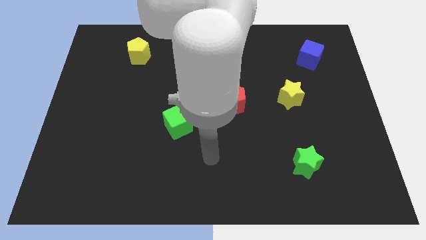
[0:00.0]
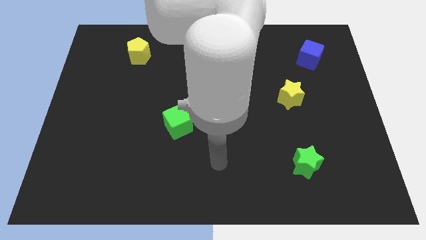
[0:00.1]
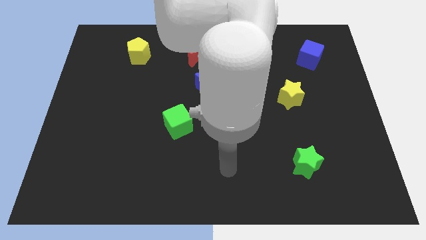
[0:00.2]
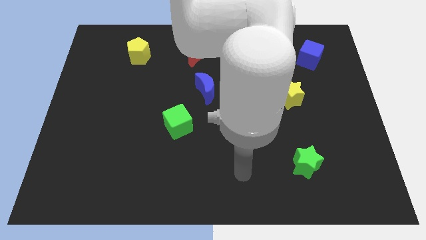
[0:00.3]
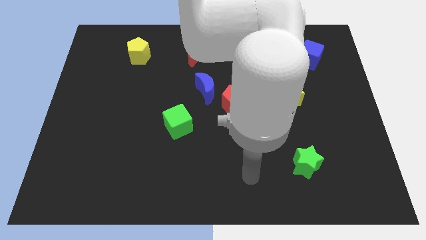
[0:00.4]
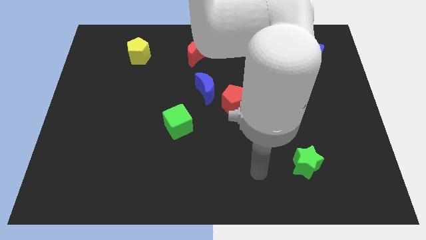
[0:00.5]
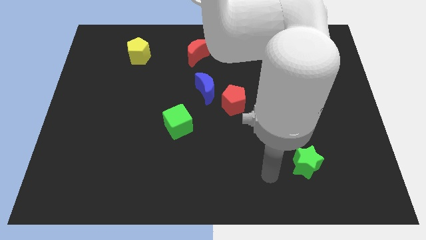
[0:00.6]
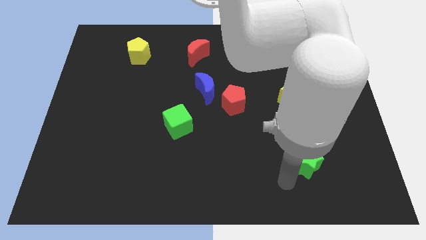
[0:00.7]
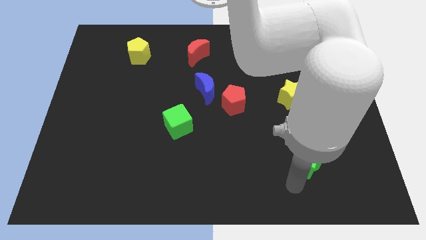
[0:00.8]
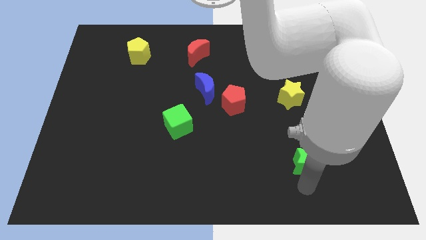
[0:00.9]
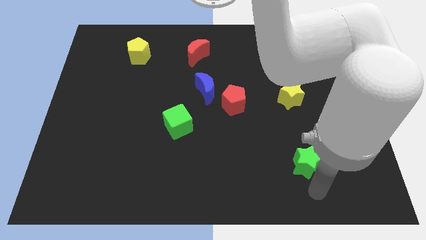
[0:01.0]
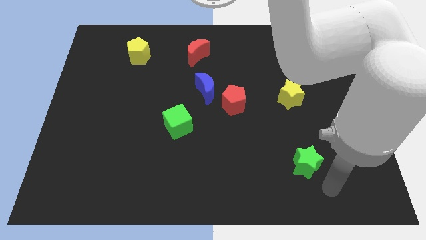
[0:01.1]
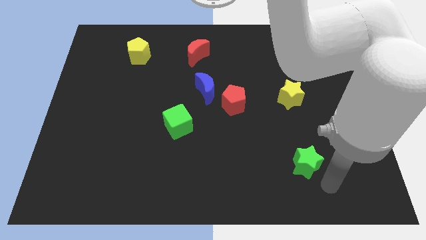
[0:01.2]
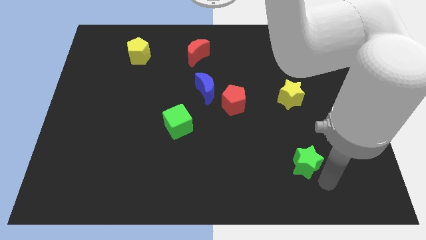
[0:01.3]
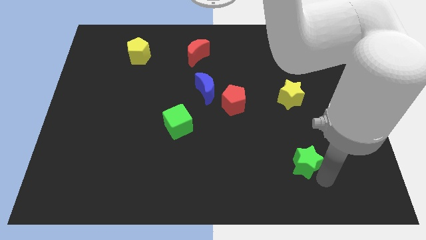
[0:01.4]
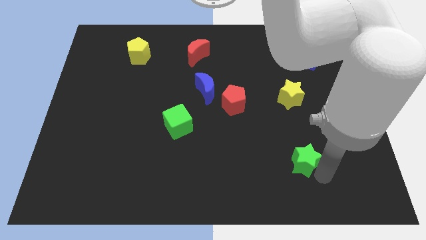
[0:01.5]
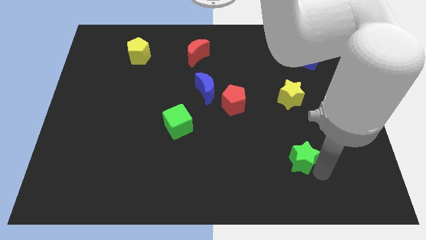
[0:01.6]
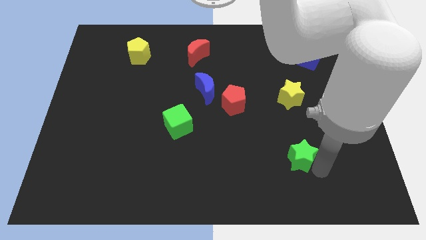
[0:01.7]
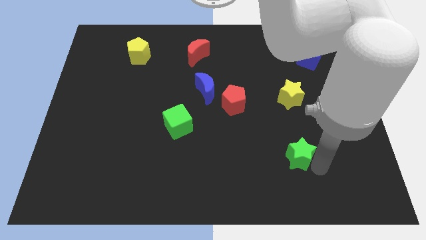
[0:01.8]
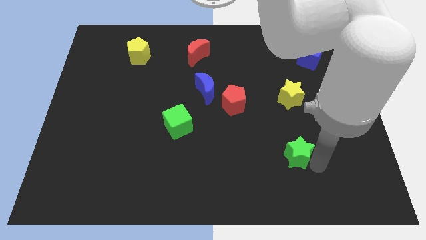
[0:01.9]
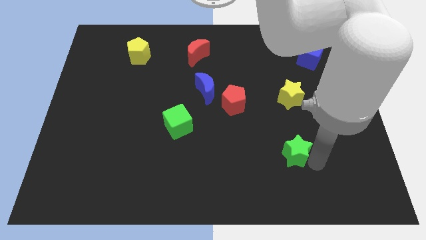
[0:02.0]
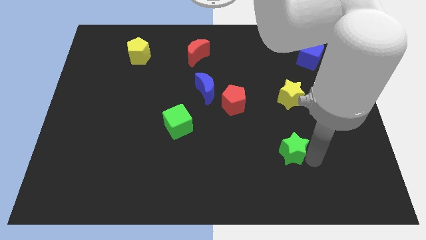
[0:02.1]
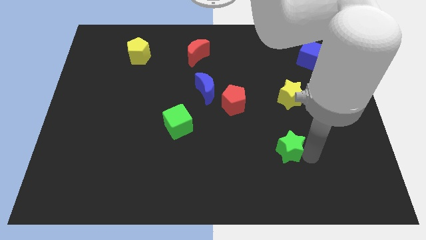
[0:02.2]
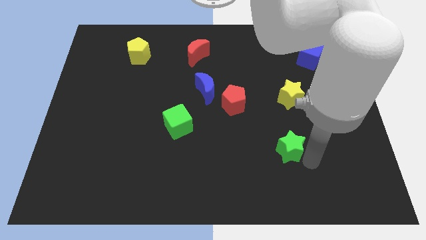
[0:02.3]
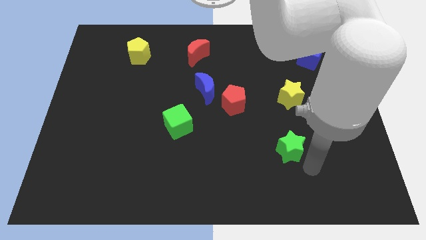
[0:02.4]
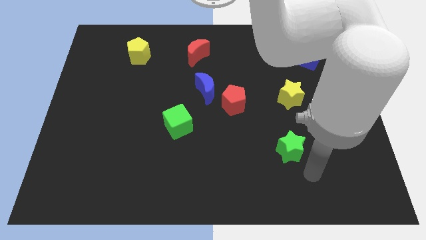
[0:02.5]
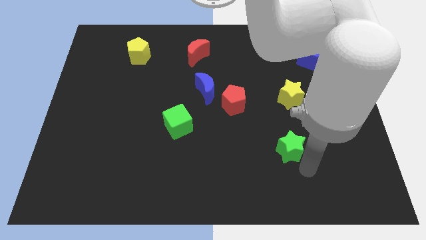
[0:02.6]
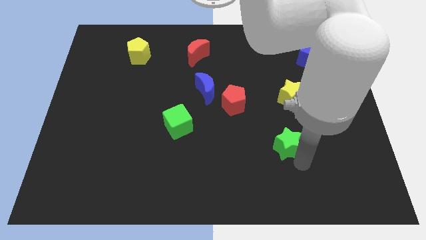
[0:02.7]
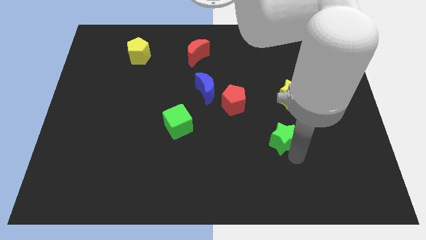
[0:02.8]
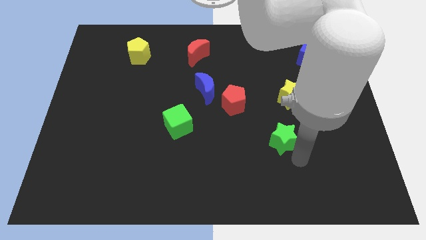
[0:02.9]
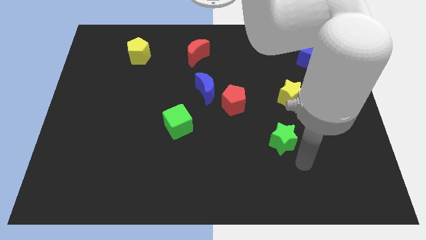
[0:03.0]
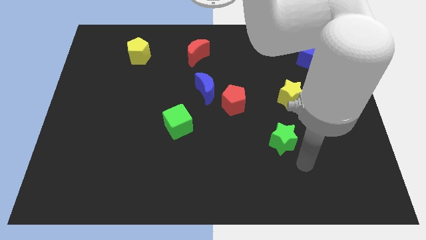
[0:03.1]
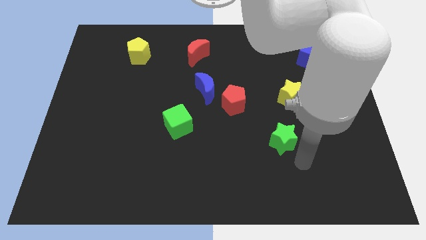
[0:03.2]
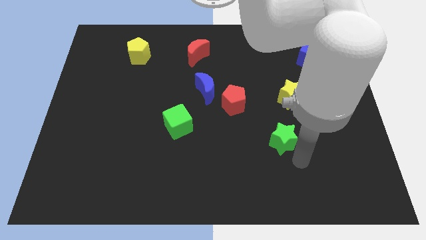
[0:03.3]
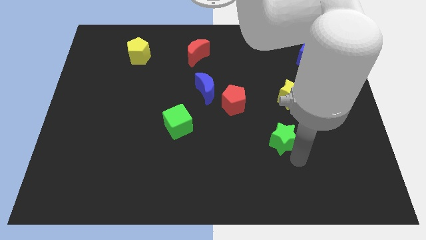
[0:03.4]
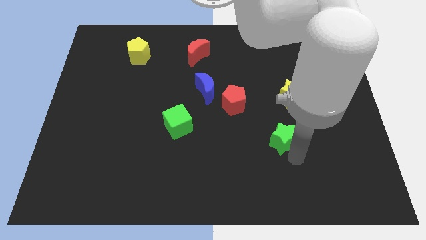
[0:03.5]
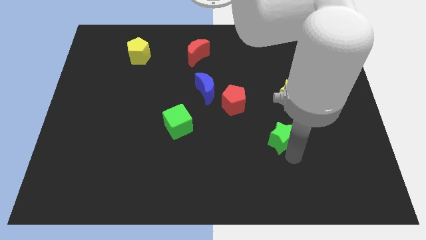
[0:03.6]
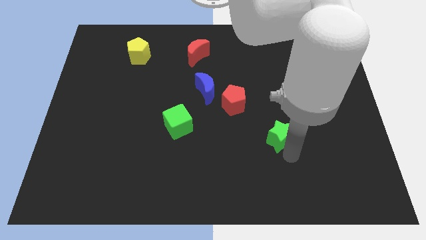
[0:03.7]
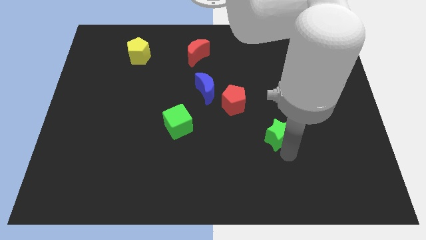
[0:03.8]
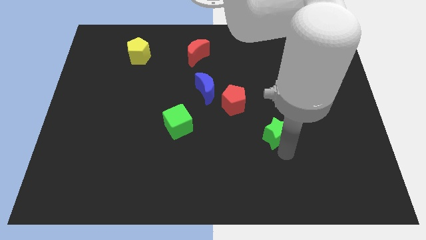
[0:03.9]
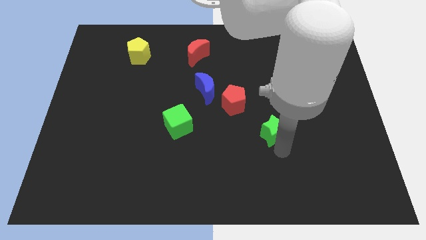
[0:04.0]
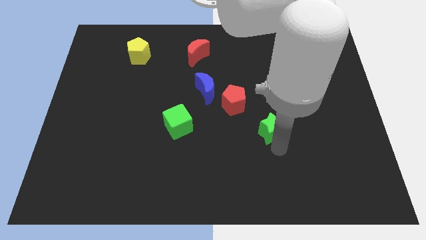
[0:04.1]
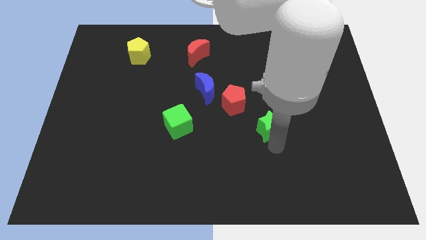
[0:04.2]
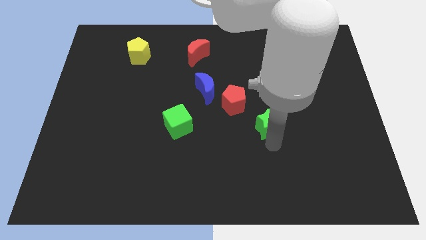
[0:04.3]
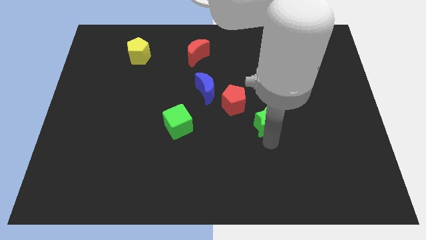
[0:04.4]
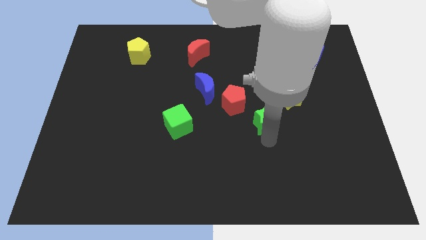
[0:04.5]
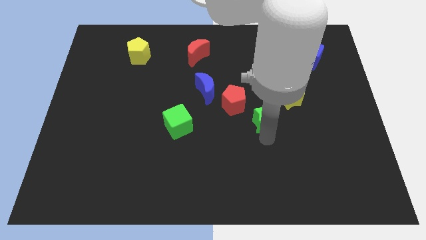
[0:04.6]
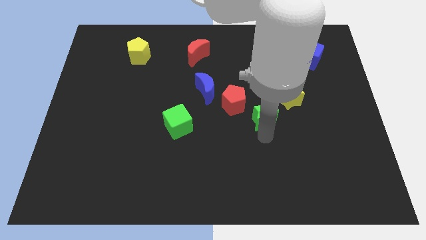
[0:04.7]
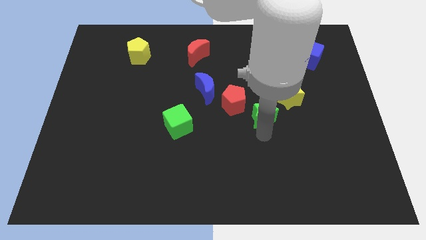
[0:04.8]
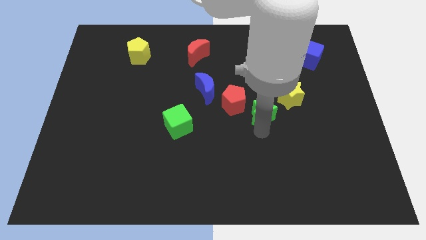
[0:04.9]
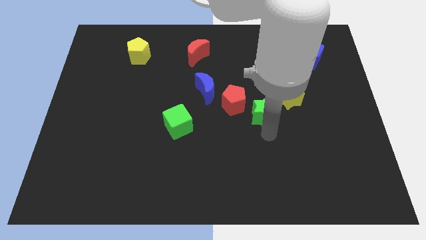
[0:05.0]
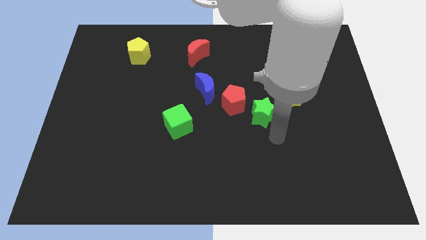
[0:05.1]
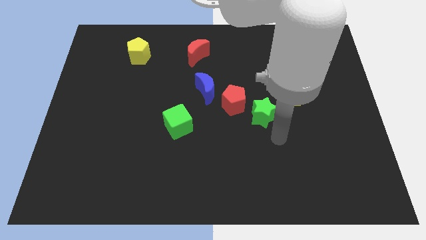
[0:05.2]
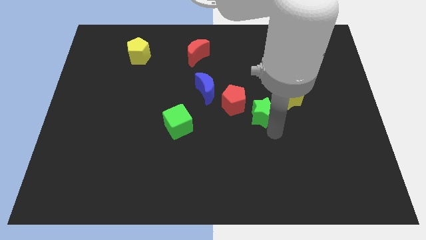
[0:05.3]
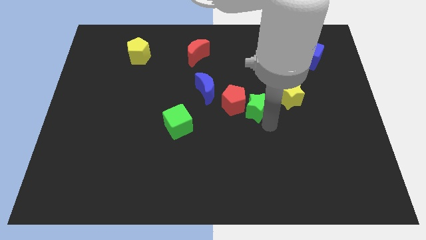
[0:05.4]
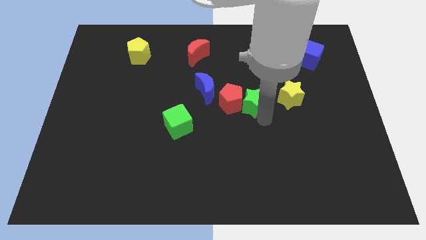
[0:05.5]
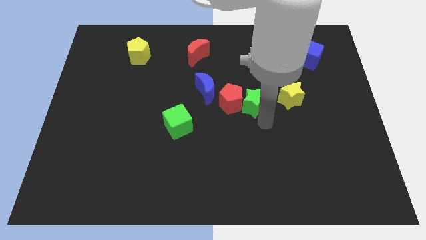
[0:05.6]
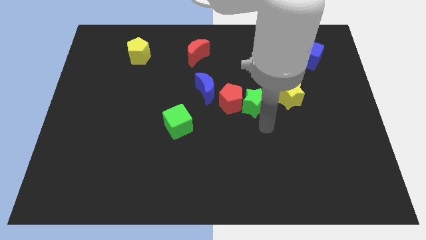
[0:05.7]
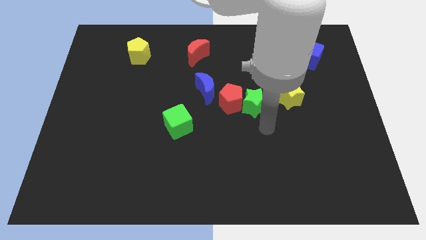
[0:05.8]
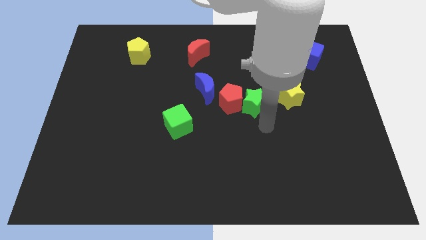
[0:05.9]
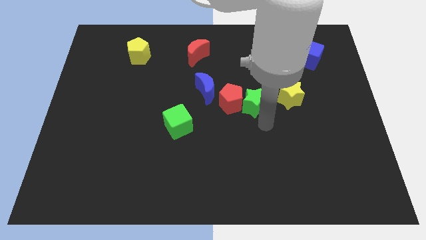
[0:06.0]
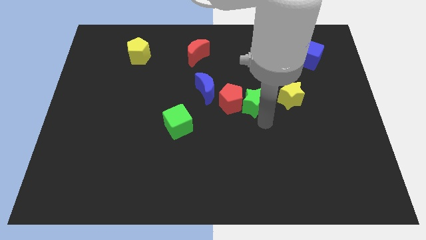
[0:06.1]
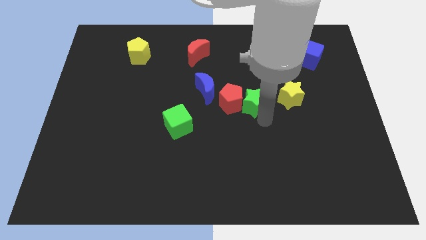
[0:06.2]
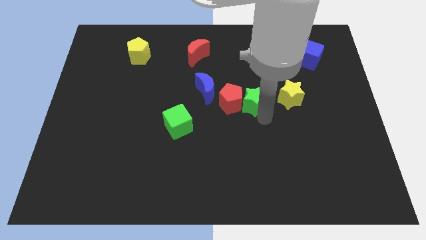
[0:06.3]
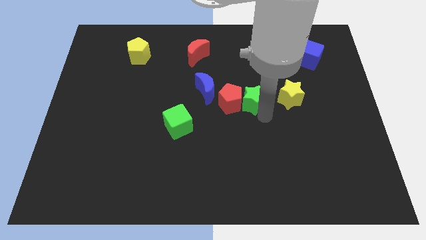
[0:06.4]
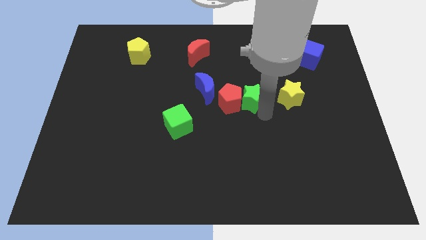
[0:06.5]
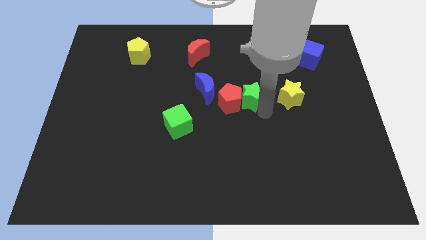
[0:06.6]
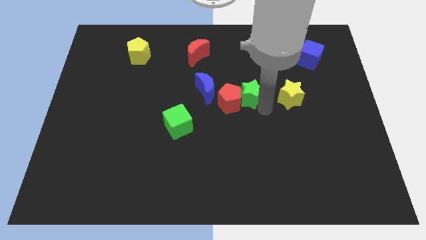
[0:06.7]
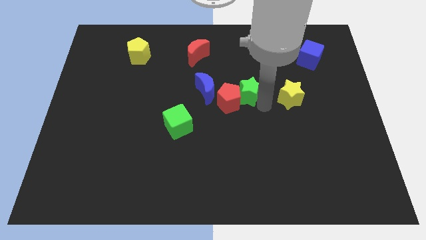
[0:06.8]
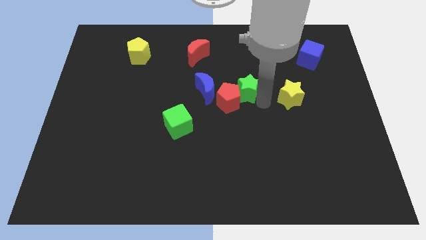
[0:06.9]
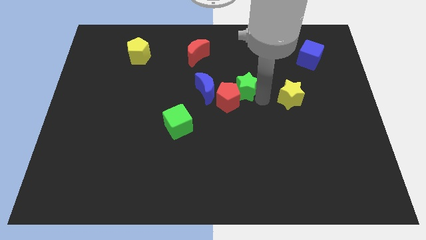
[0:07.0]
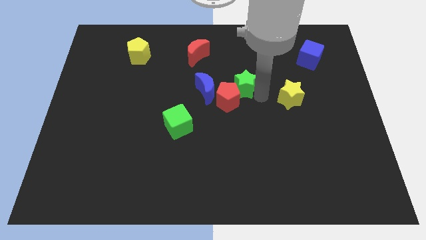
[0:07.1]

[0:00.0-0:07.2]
push the green star to the top side of the red pentagon
